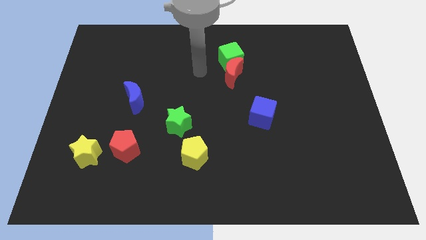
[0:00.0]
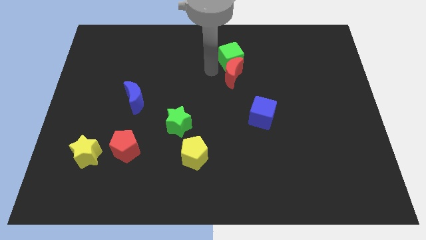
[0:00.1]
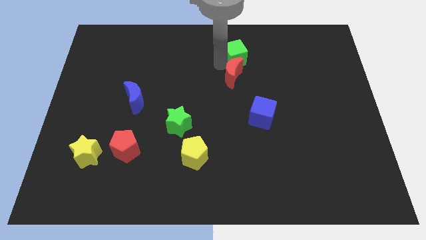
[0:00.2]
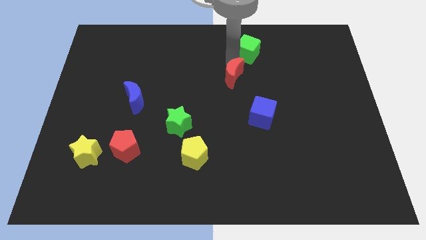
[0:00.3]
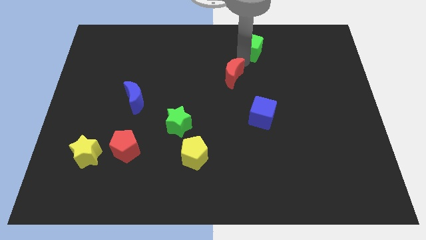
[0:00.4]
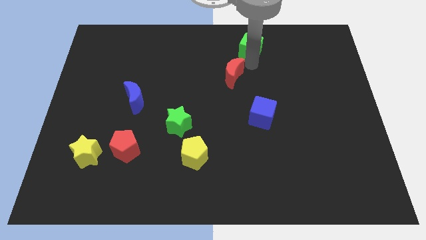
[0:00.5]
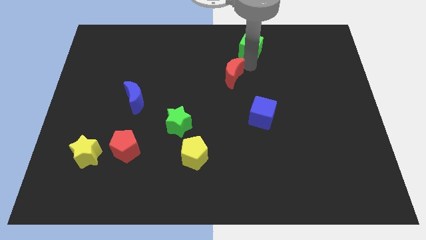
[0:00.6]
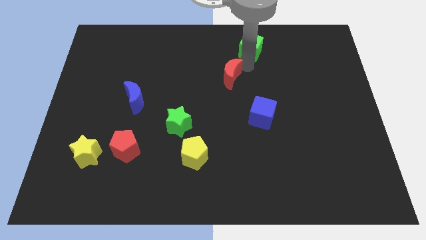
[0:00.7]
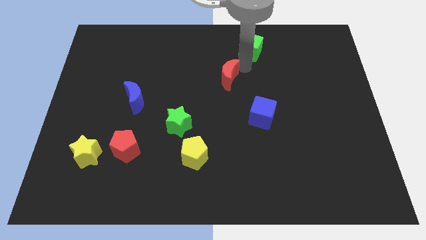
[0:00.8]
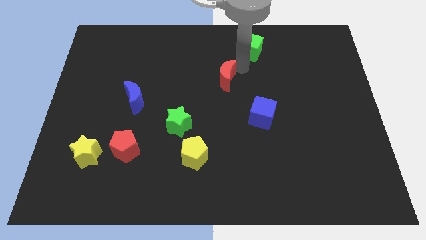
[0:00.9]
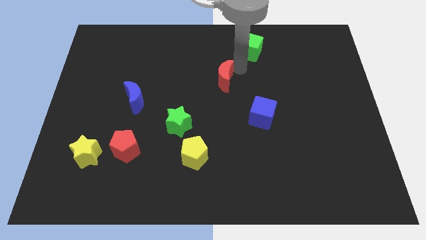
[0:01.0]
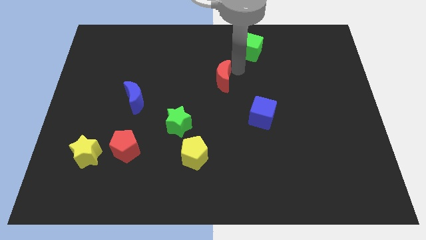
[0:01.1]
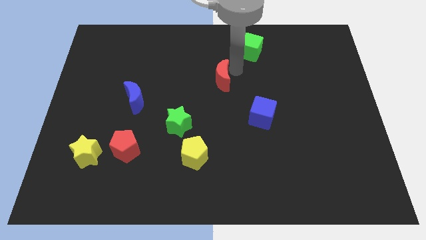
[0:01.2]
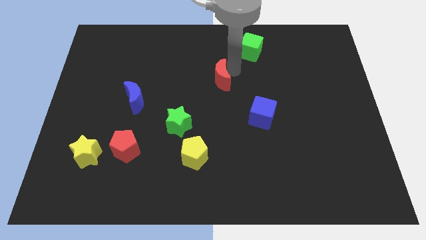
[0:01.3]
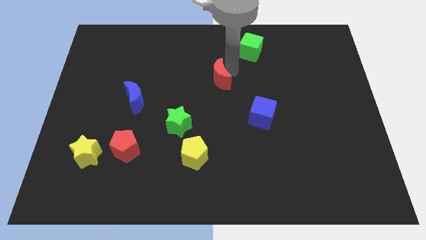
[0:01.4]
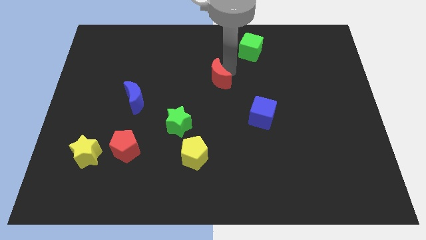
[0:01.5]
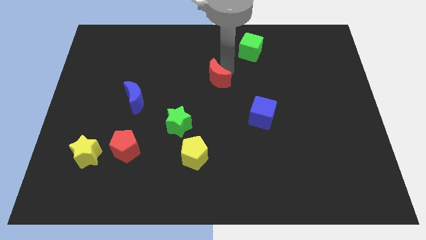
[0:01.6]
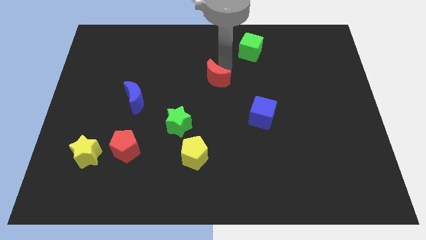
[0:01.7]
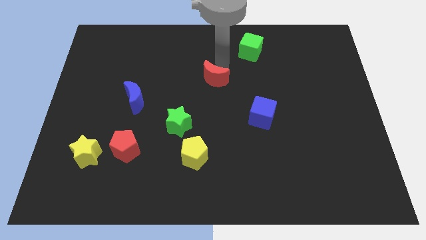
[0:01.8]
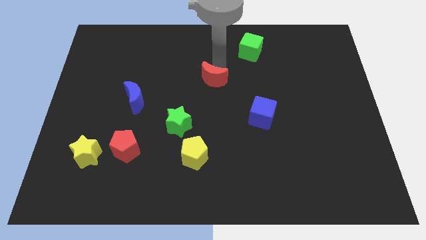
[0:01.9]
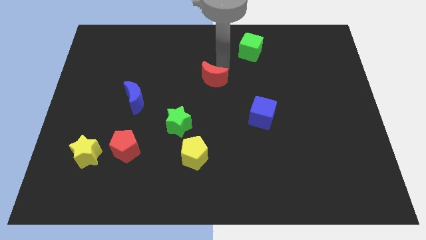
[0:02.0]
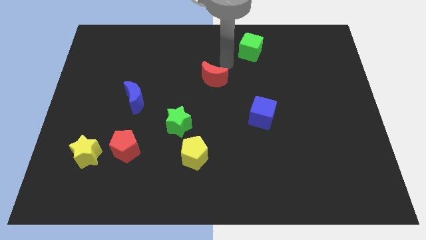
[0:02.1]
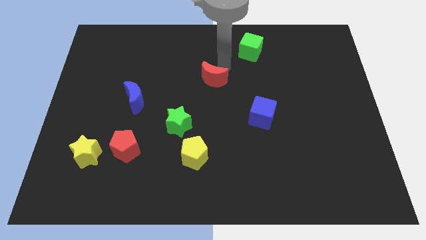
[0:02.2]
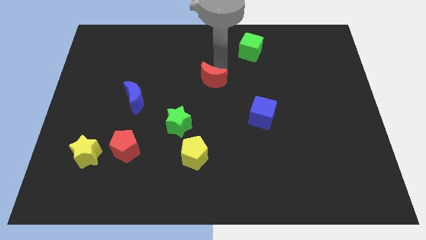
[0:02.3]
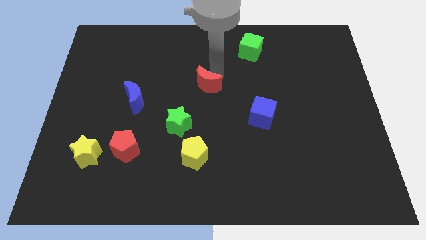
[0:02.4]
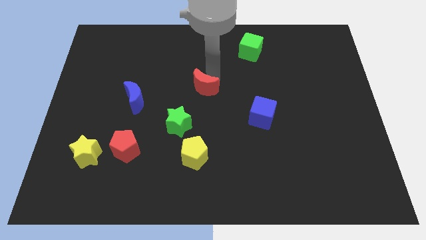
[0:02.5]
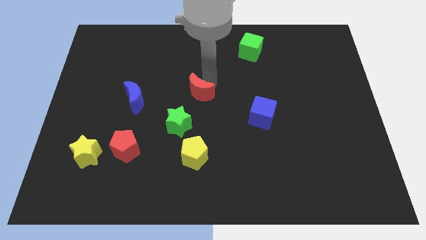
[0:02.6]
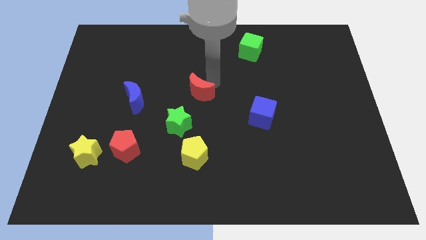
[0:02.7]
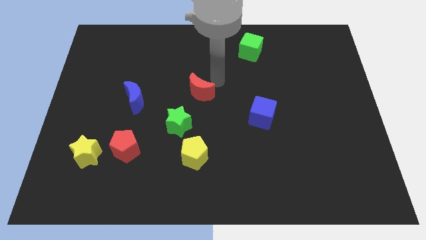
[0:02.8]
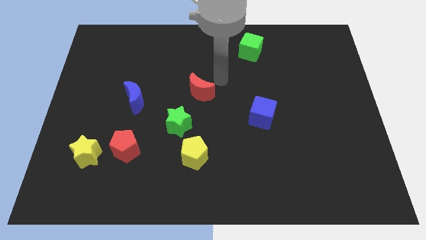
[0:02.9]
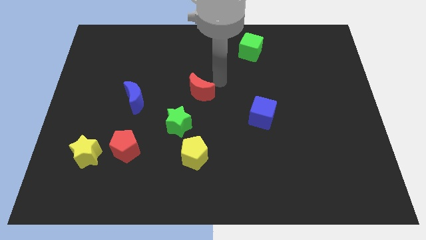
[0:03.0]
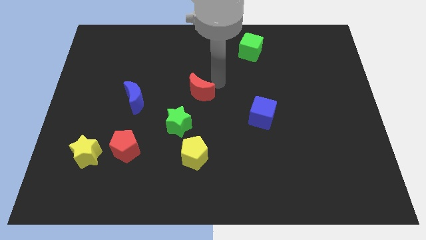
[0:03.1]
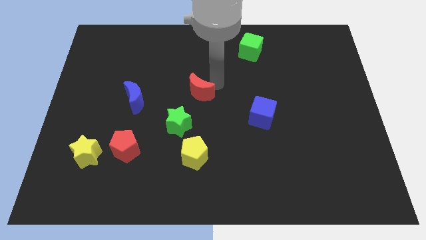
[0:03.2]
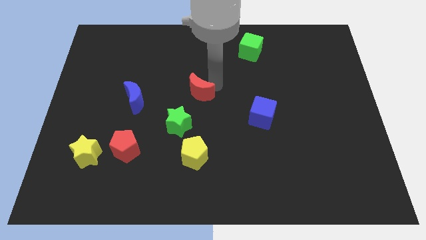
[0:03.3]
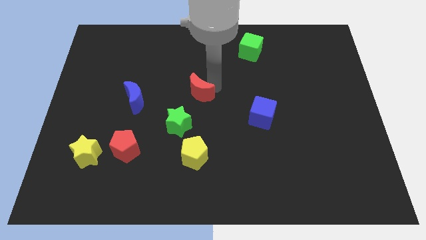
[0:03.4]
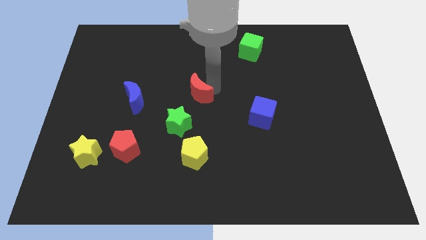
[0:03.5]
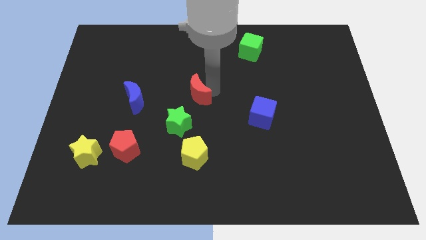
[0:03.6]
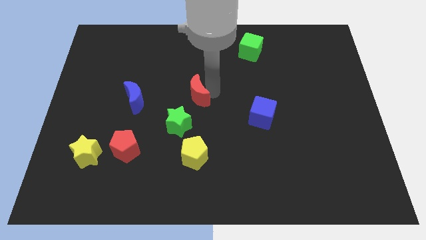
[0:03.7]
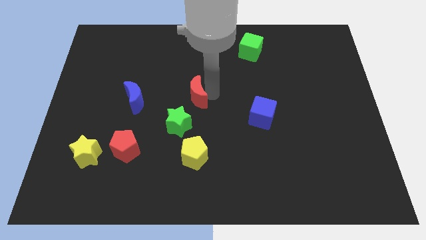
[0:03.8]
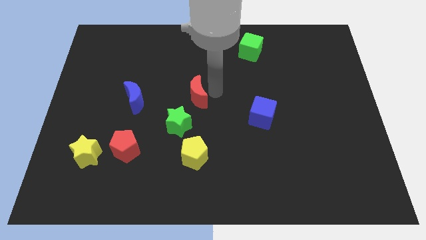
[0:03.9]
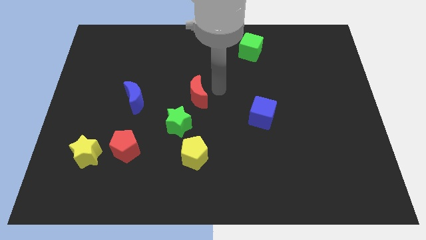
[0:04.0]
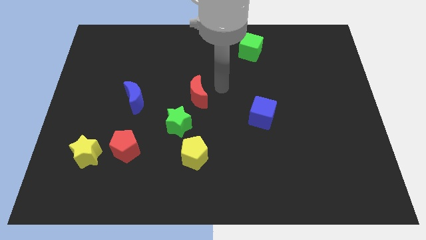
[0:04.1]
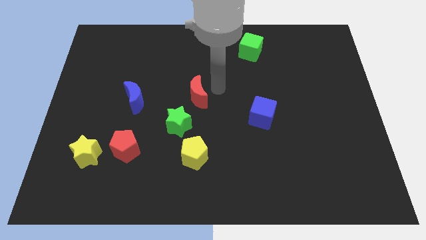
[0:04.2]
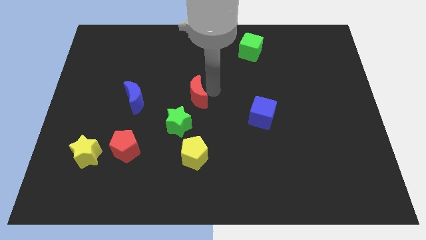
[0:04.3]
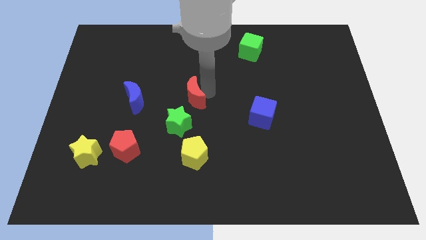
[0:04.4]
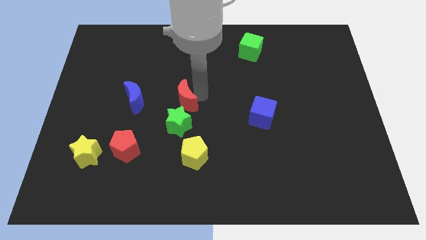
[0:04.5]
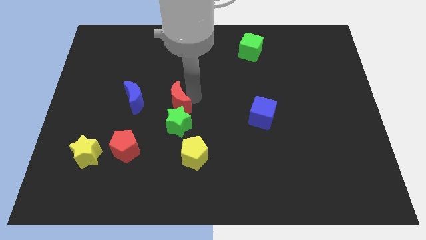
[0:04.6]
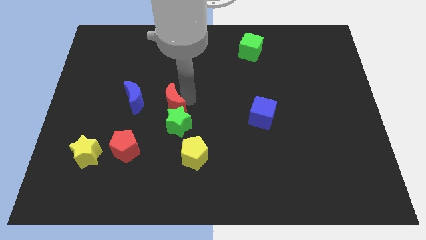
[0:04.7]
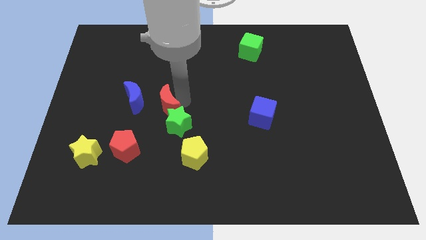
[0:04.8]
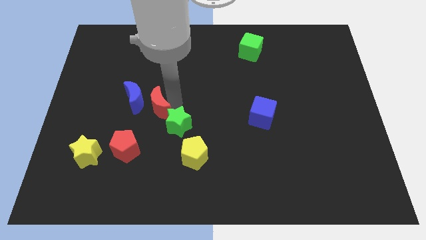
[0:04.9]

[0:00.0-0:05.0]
put the red moon to the left side of the green star

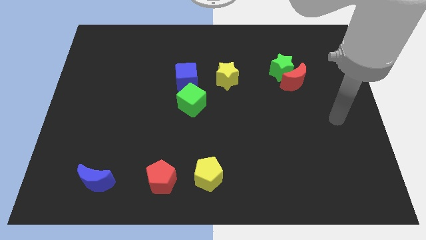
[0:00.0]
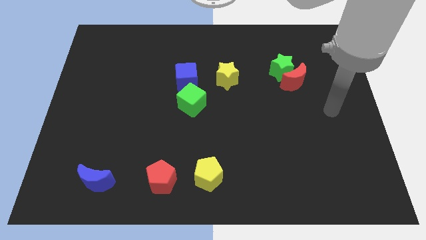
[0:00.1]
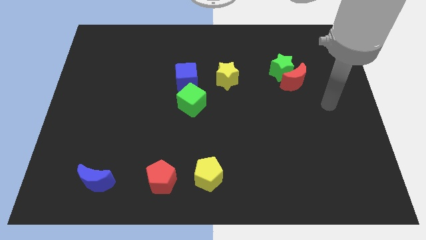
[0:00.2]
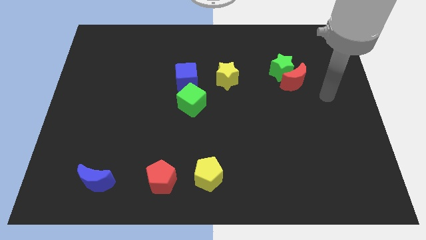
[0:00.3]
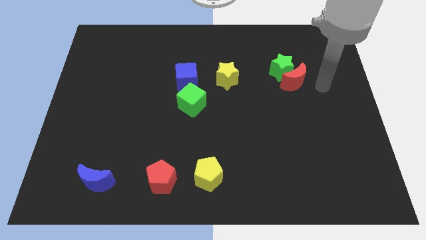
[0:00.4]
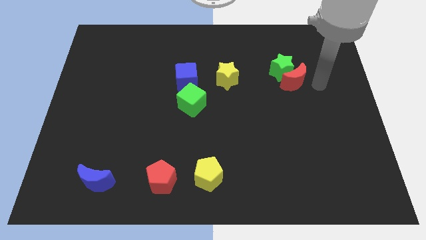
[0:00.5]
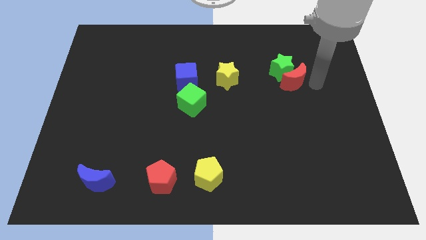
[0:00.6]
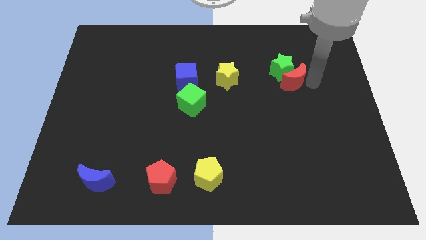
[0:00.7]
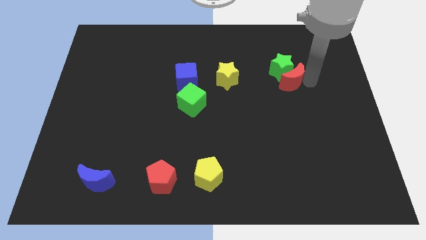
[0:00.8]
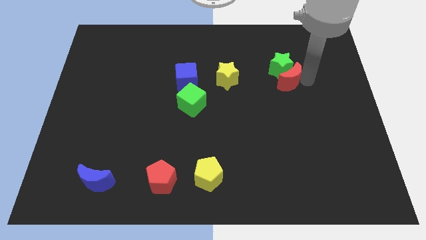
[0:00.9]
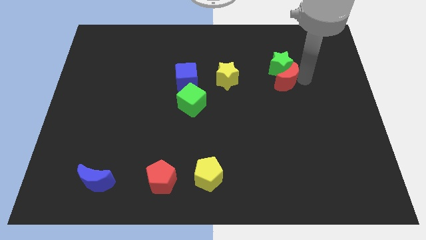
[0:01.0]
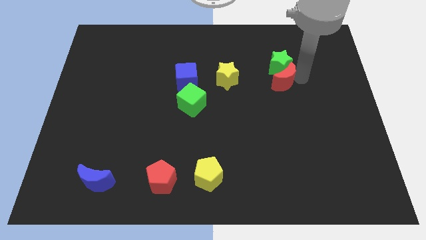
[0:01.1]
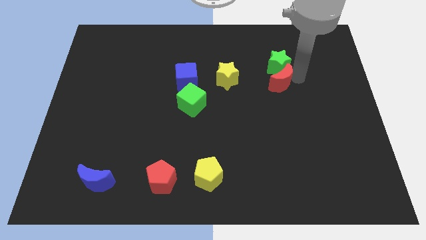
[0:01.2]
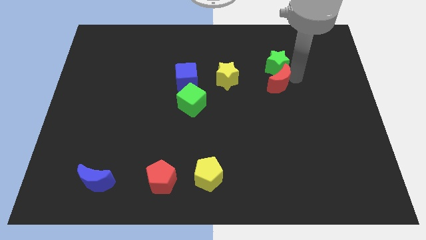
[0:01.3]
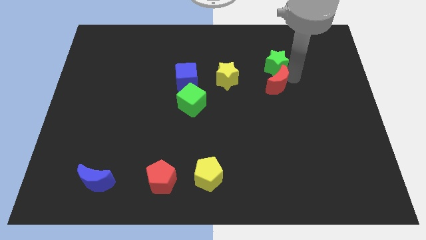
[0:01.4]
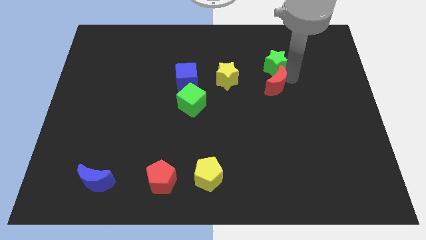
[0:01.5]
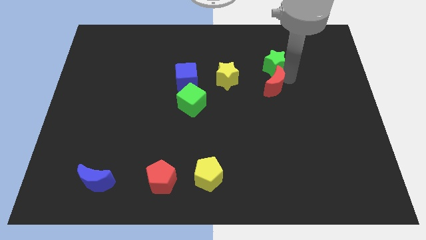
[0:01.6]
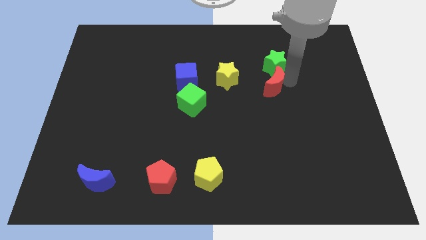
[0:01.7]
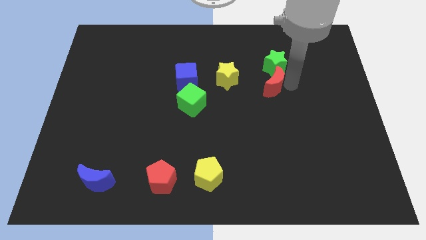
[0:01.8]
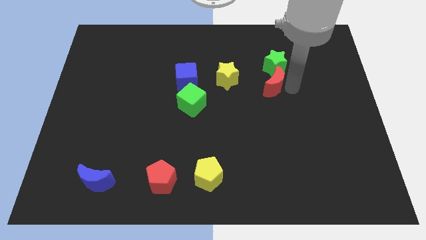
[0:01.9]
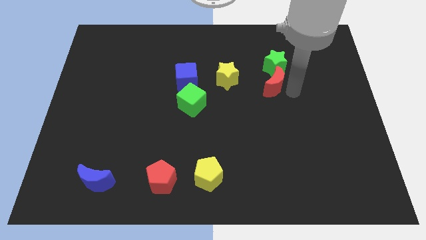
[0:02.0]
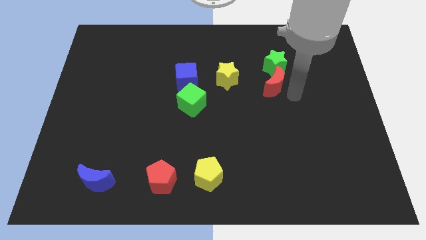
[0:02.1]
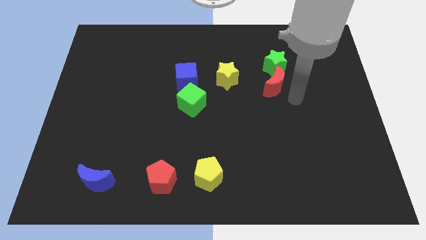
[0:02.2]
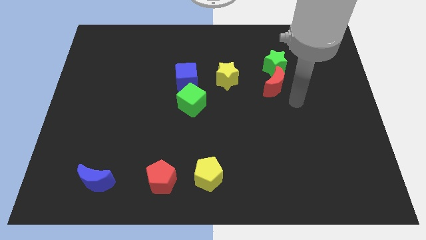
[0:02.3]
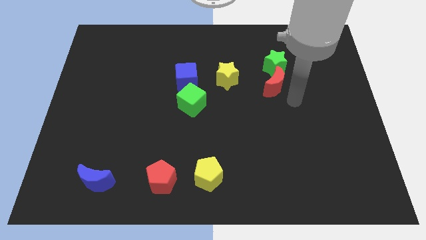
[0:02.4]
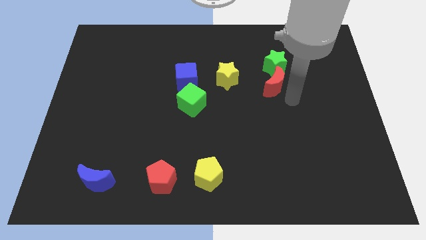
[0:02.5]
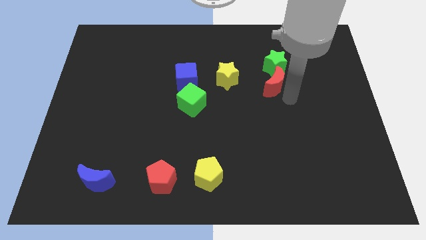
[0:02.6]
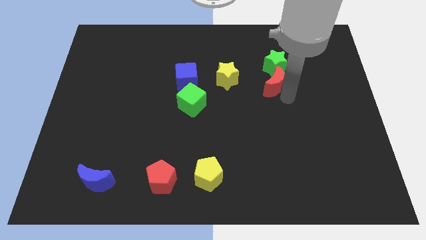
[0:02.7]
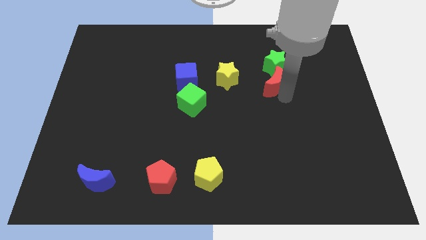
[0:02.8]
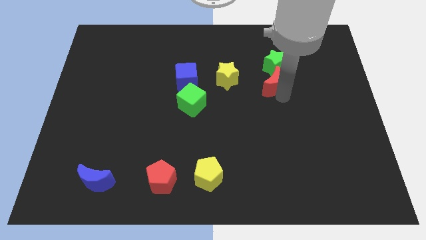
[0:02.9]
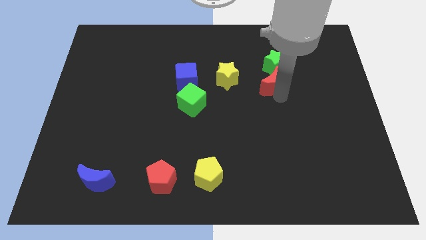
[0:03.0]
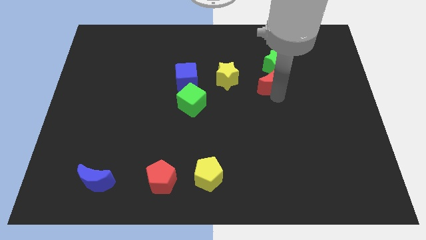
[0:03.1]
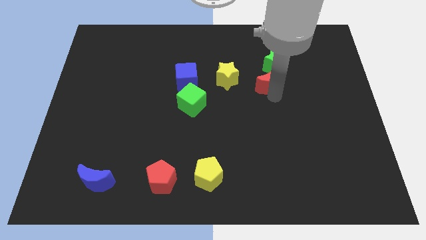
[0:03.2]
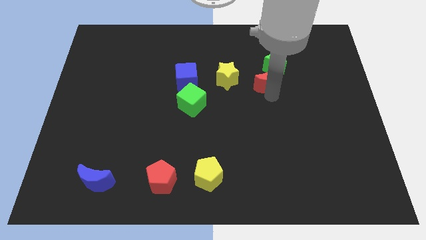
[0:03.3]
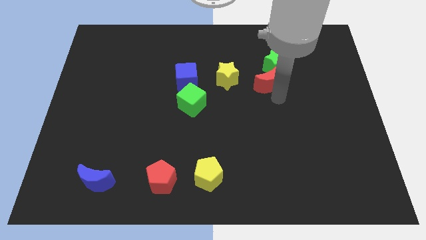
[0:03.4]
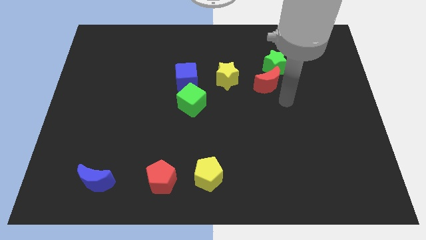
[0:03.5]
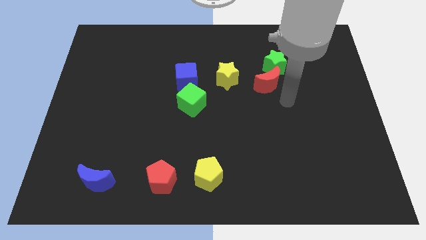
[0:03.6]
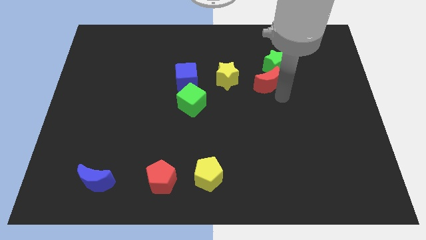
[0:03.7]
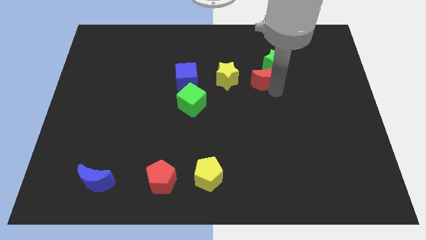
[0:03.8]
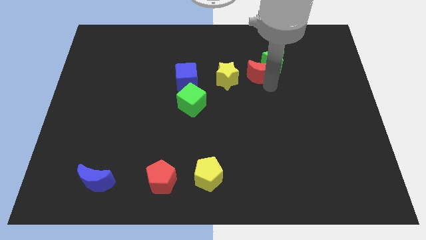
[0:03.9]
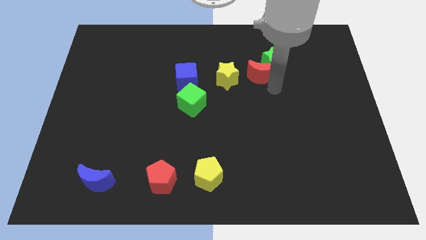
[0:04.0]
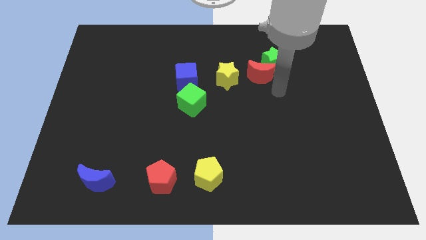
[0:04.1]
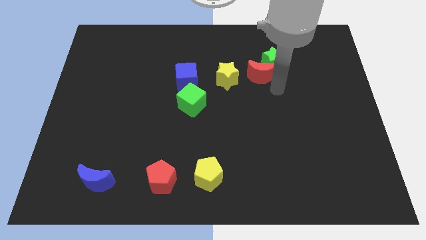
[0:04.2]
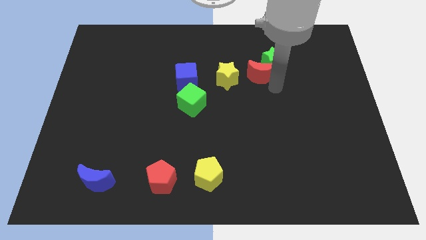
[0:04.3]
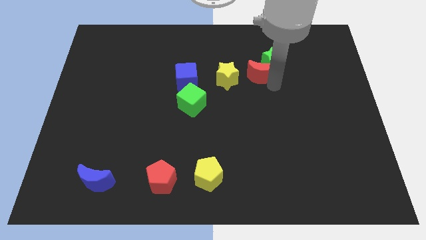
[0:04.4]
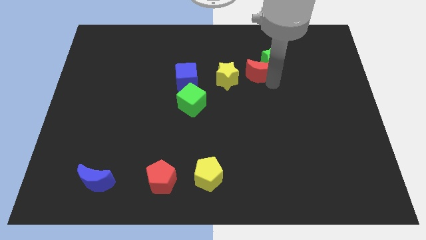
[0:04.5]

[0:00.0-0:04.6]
move the red moon to the top right of the yellow star
